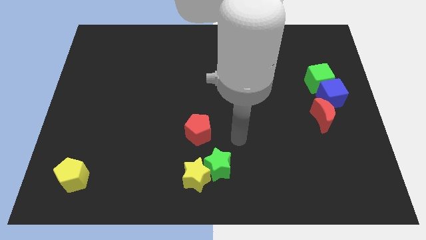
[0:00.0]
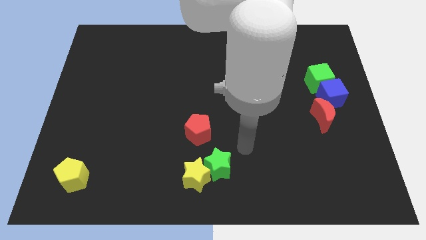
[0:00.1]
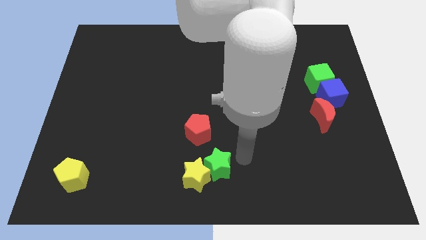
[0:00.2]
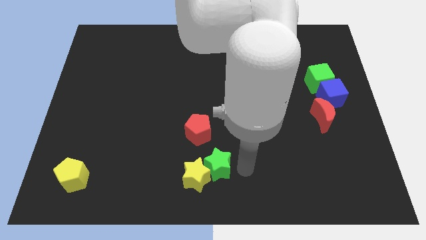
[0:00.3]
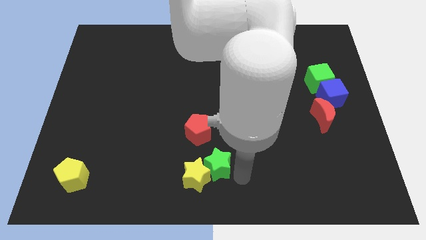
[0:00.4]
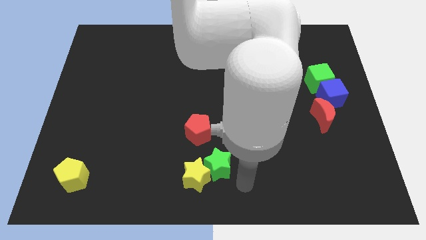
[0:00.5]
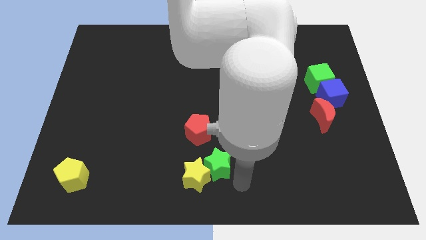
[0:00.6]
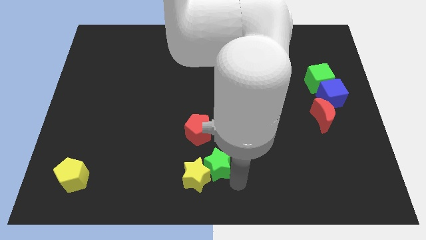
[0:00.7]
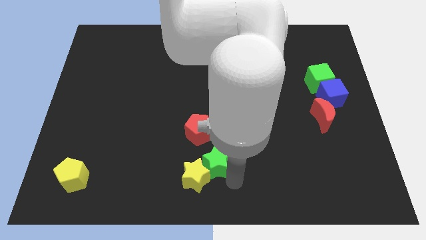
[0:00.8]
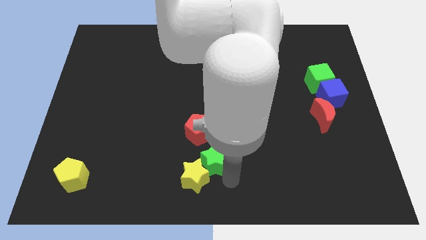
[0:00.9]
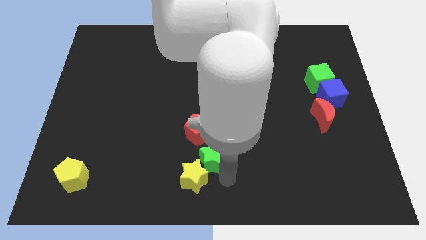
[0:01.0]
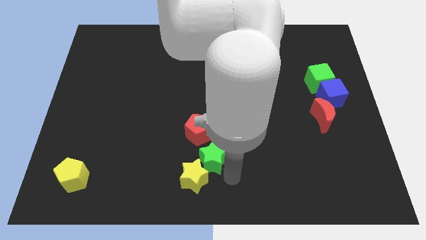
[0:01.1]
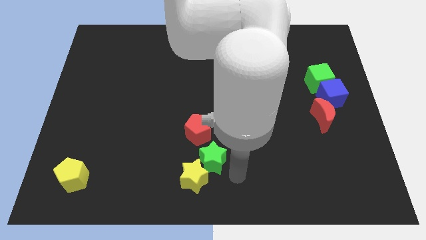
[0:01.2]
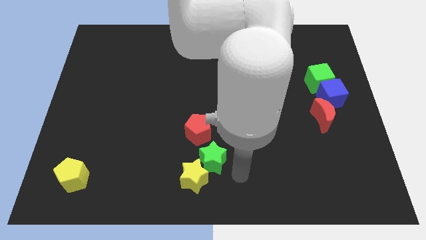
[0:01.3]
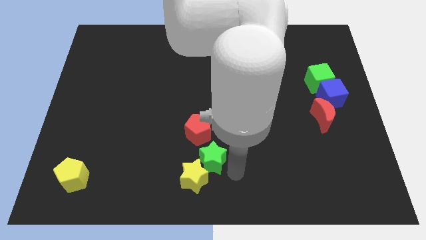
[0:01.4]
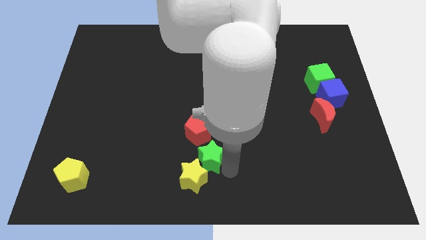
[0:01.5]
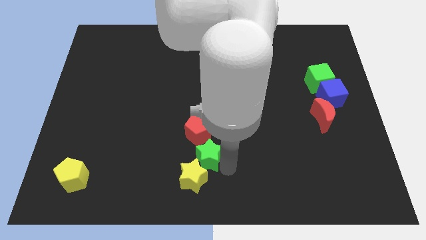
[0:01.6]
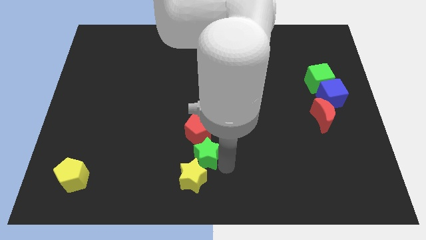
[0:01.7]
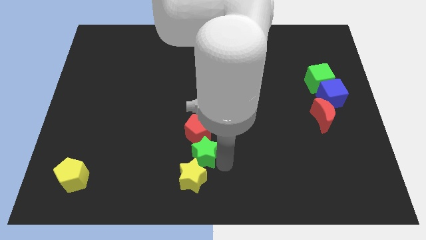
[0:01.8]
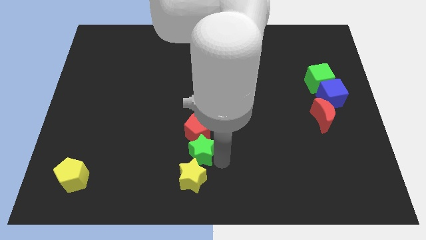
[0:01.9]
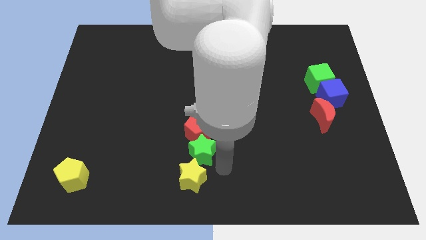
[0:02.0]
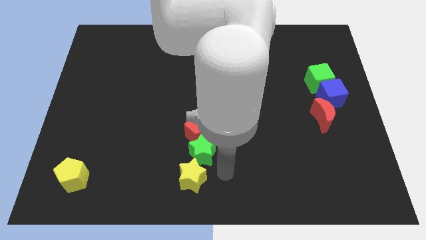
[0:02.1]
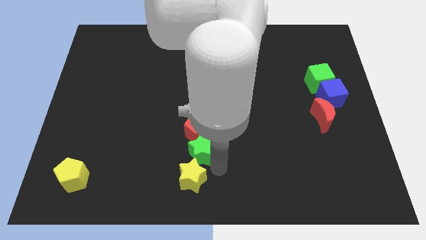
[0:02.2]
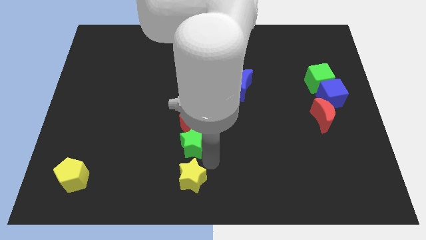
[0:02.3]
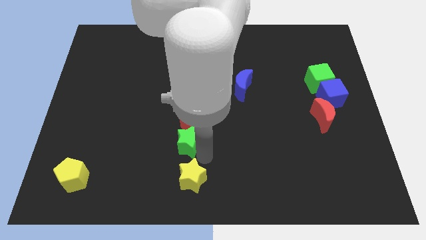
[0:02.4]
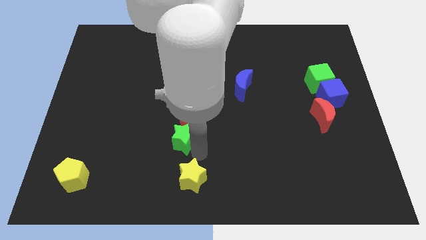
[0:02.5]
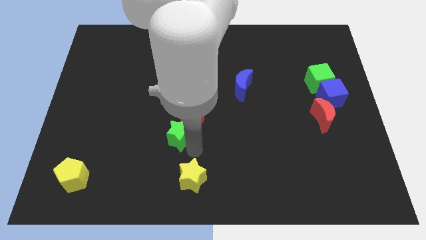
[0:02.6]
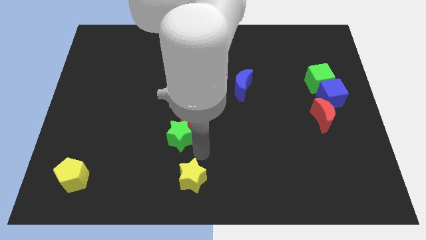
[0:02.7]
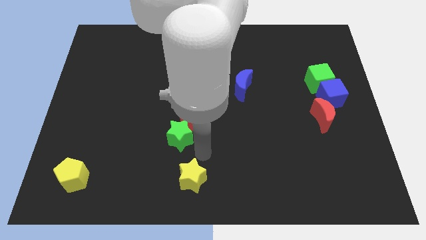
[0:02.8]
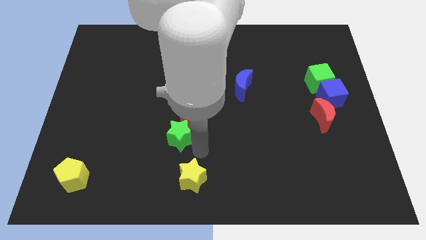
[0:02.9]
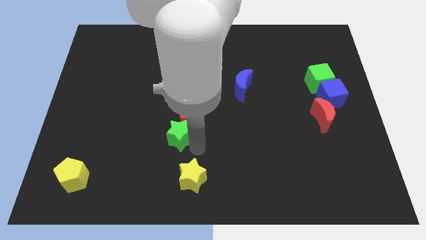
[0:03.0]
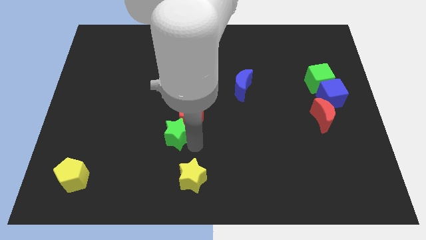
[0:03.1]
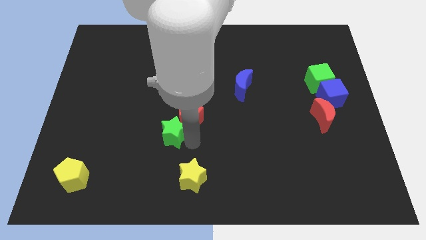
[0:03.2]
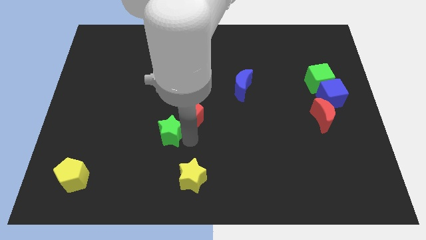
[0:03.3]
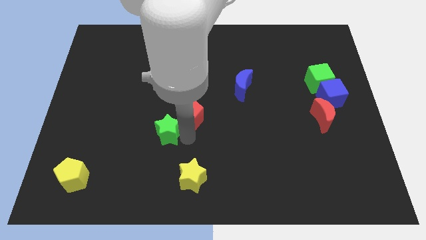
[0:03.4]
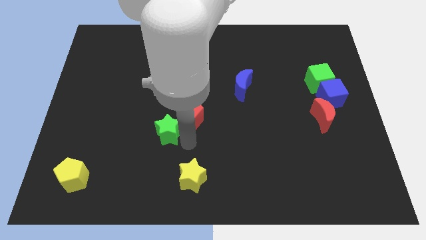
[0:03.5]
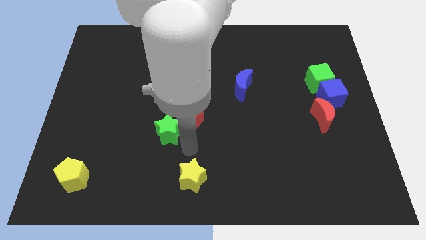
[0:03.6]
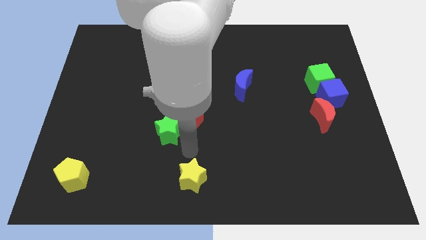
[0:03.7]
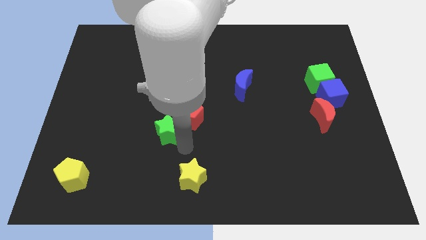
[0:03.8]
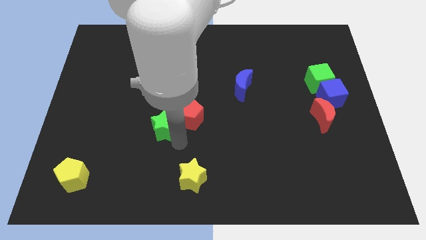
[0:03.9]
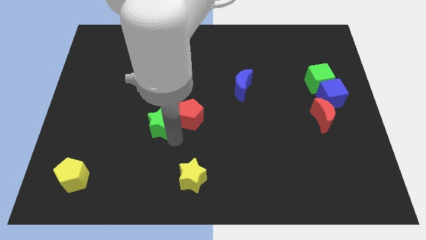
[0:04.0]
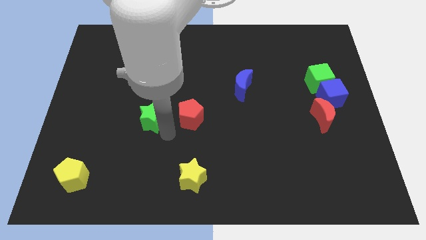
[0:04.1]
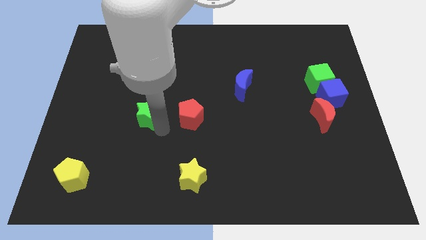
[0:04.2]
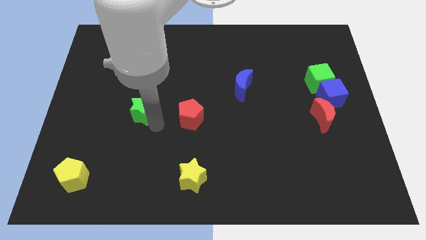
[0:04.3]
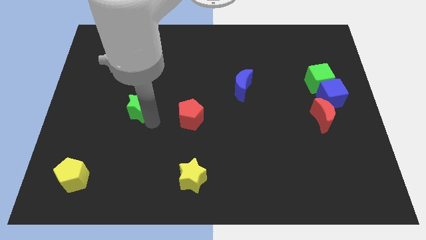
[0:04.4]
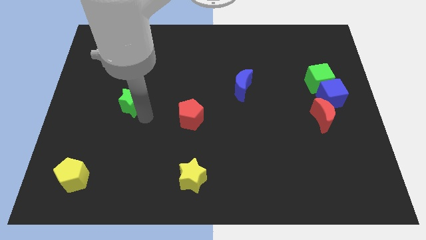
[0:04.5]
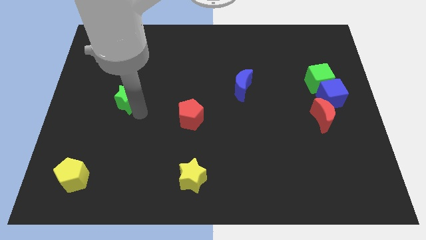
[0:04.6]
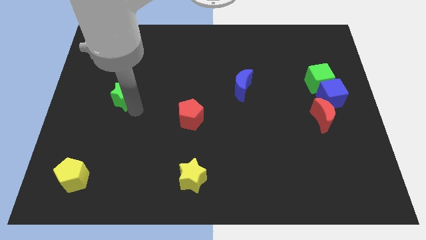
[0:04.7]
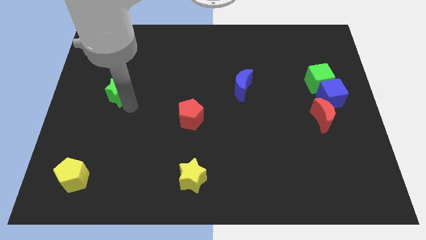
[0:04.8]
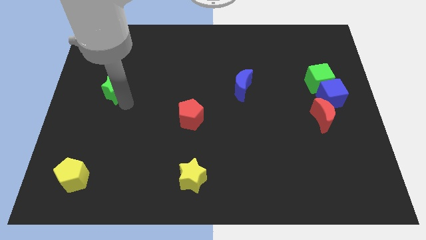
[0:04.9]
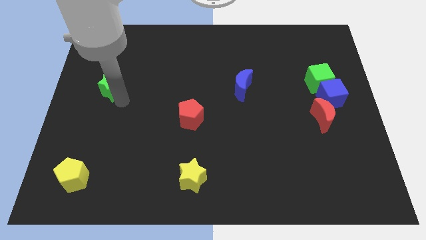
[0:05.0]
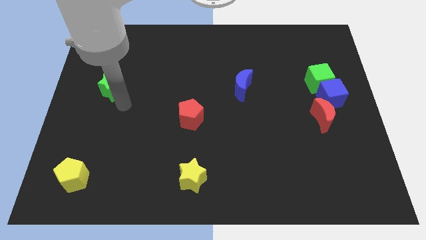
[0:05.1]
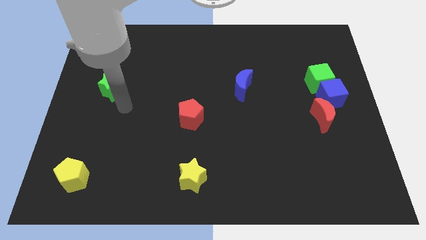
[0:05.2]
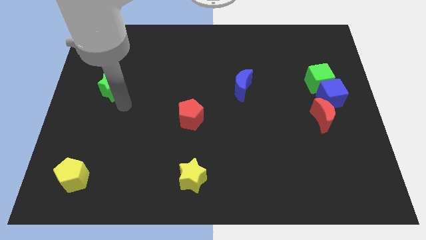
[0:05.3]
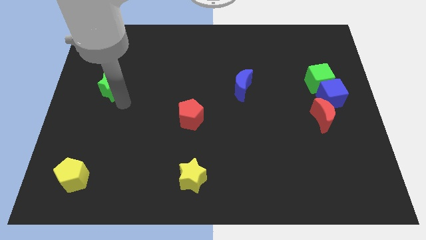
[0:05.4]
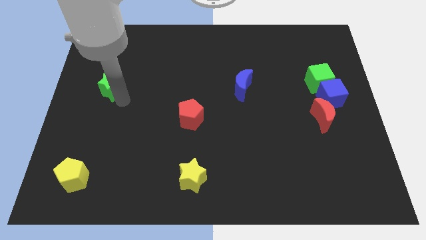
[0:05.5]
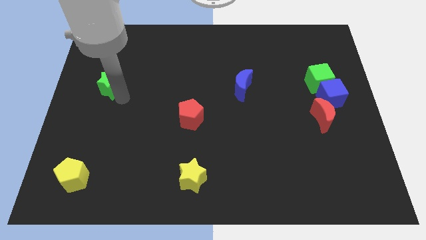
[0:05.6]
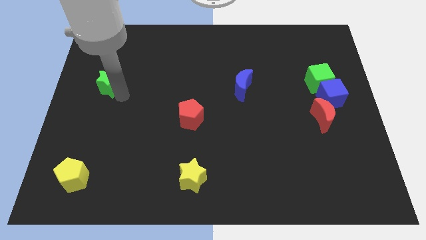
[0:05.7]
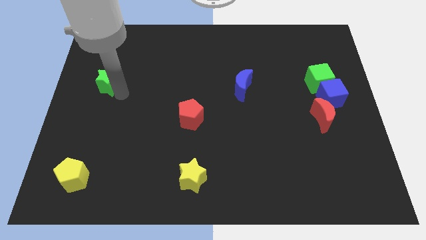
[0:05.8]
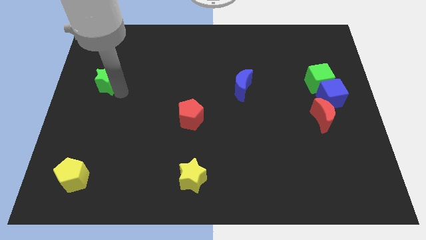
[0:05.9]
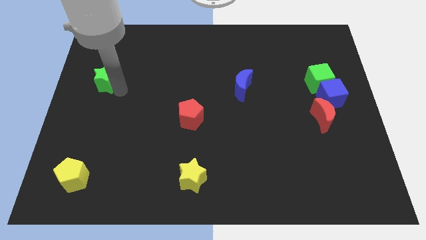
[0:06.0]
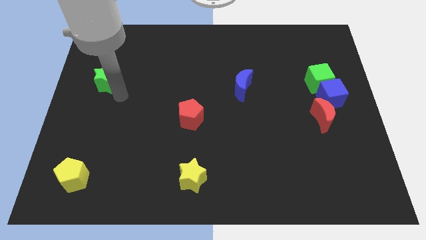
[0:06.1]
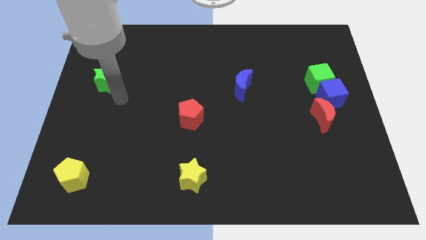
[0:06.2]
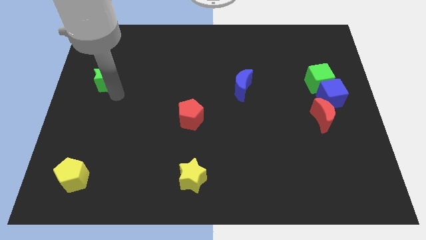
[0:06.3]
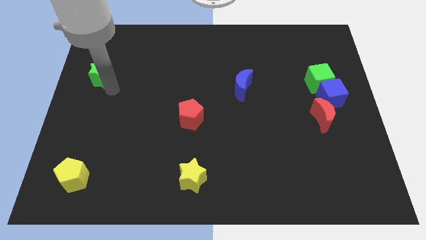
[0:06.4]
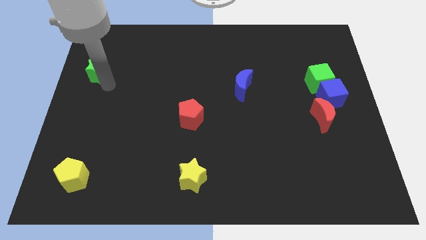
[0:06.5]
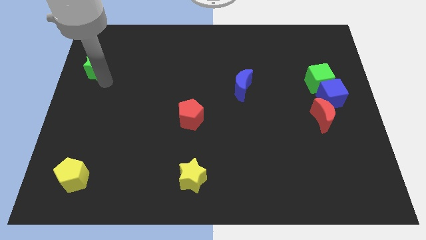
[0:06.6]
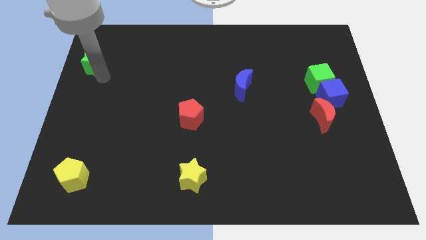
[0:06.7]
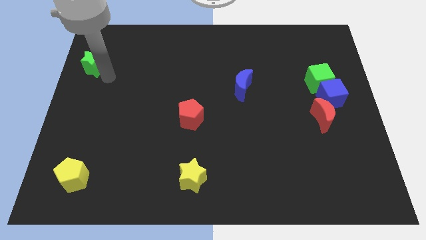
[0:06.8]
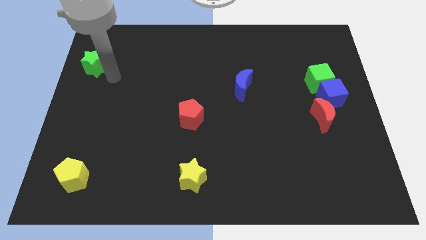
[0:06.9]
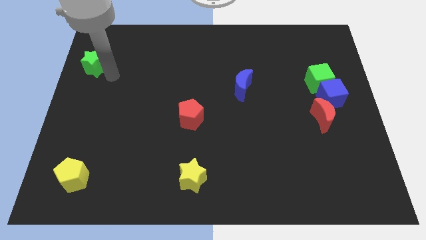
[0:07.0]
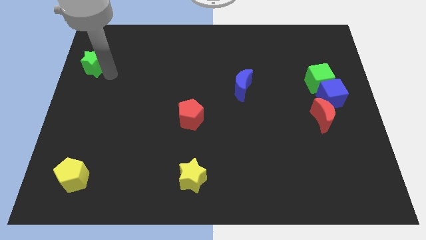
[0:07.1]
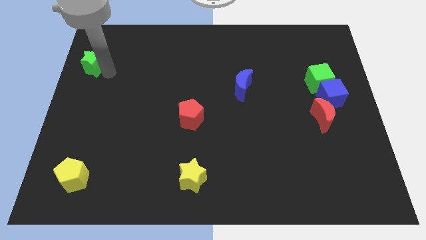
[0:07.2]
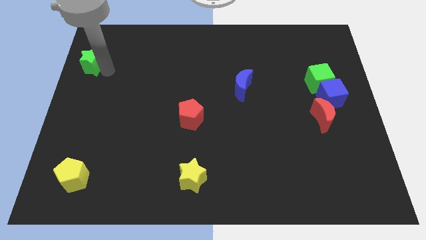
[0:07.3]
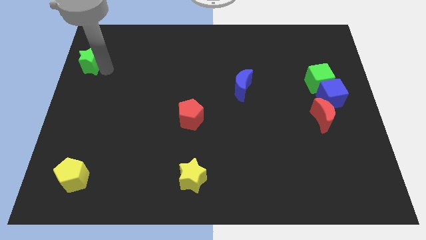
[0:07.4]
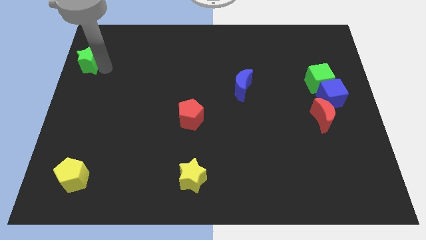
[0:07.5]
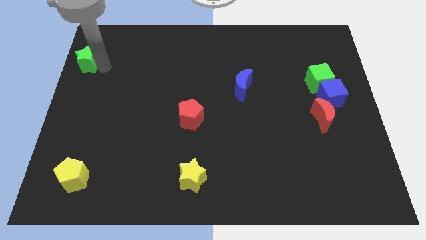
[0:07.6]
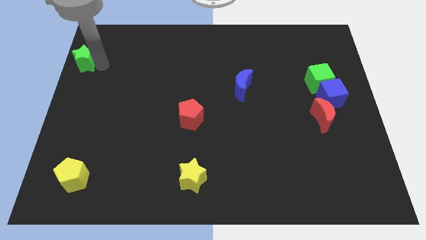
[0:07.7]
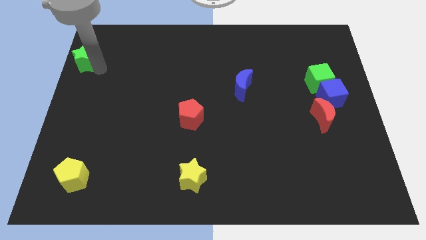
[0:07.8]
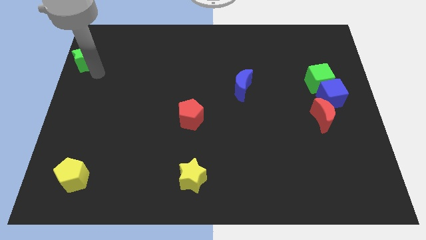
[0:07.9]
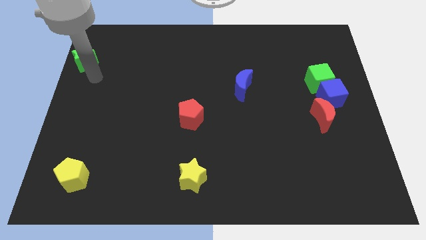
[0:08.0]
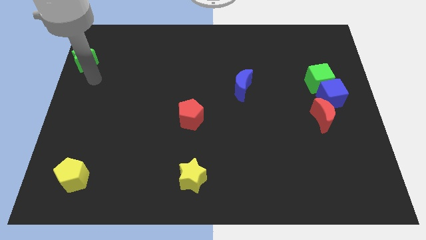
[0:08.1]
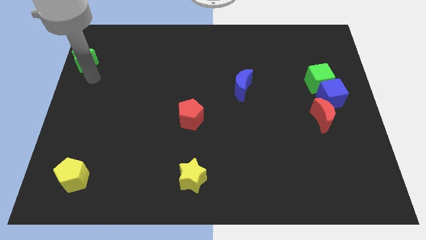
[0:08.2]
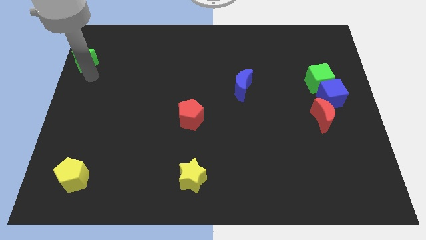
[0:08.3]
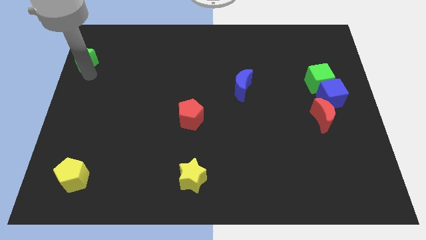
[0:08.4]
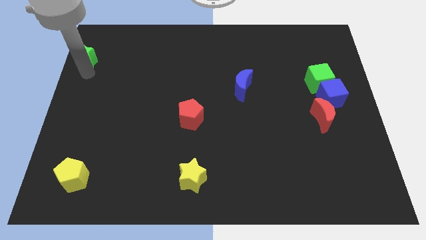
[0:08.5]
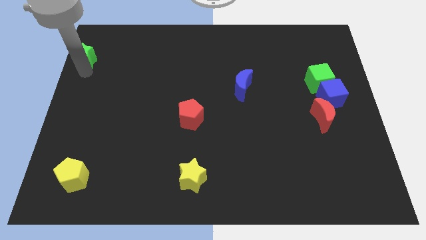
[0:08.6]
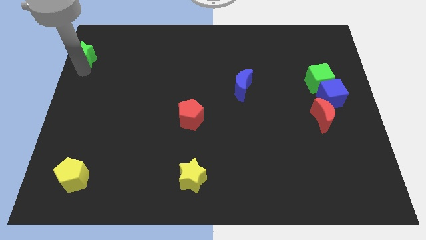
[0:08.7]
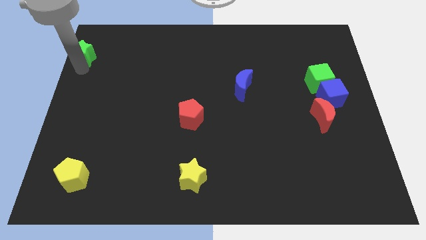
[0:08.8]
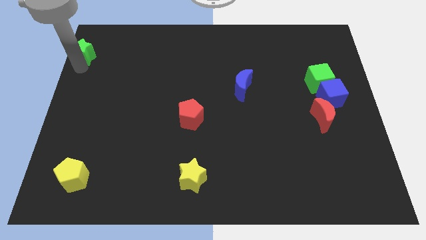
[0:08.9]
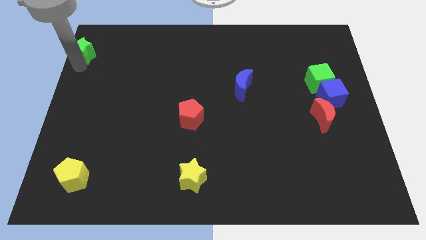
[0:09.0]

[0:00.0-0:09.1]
put the green star to the top left corner
